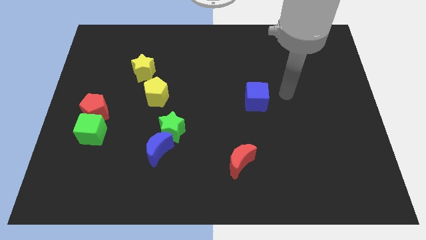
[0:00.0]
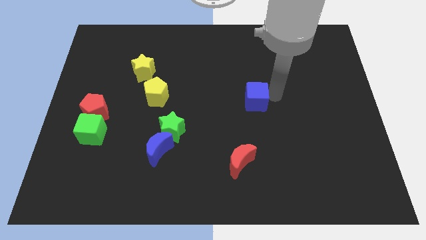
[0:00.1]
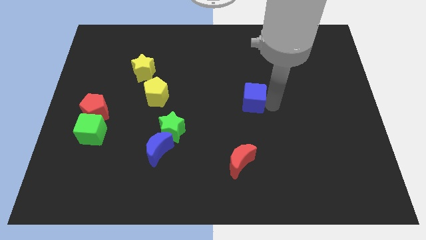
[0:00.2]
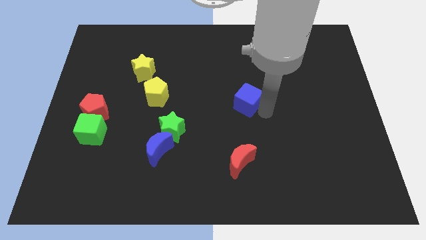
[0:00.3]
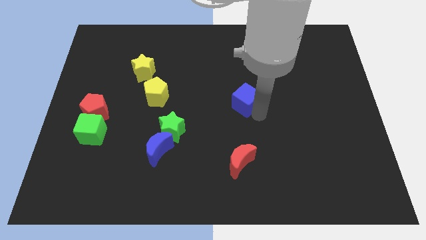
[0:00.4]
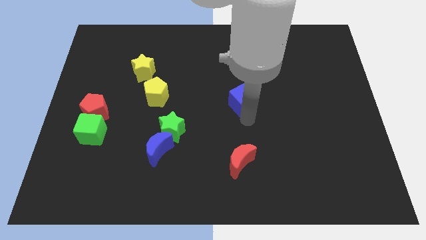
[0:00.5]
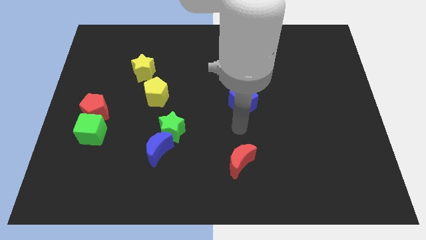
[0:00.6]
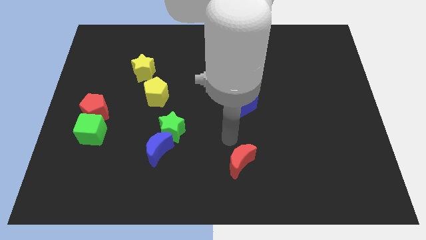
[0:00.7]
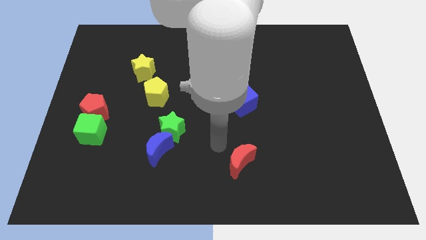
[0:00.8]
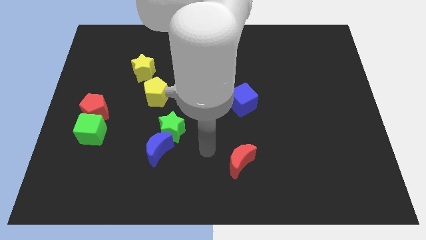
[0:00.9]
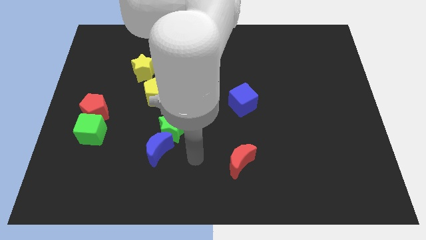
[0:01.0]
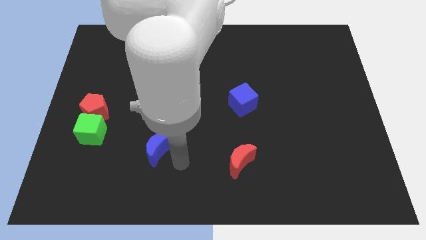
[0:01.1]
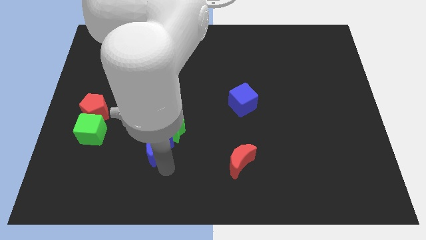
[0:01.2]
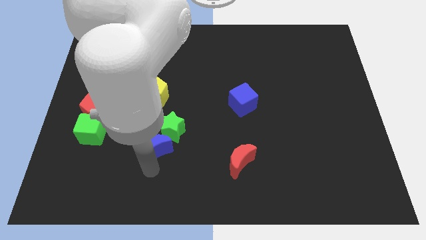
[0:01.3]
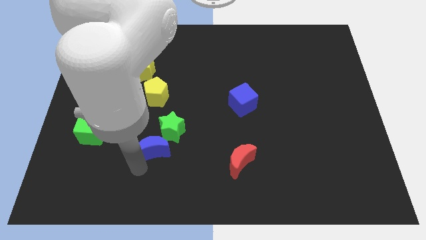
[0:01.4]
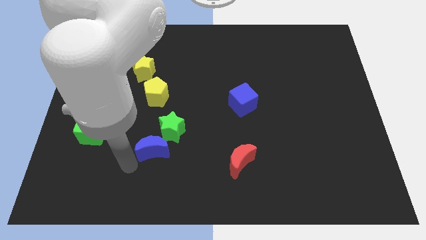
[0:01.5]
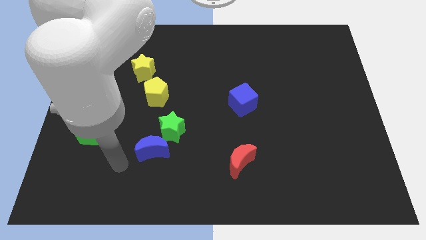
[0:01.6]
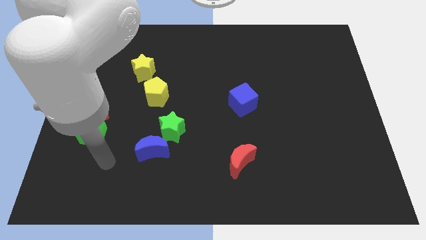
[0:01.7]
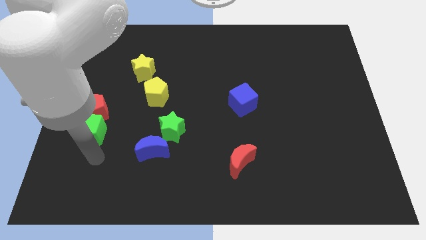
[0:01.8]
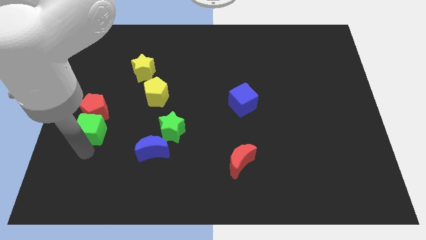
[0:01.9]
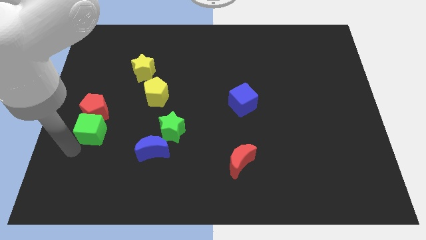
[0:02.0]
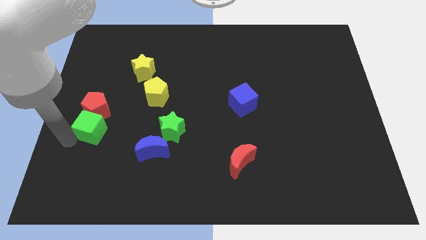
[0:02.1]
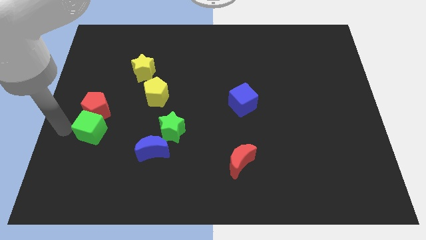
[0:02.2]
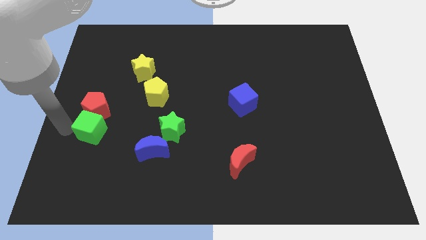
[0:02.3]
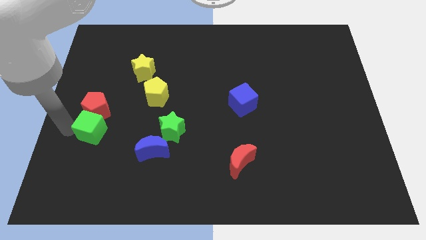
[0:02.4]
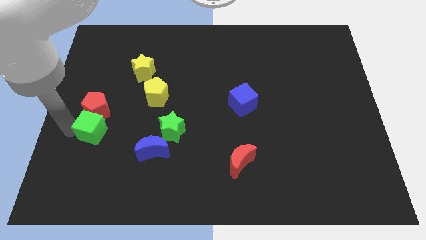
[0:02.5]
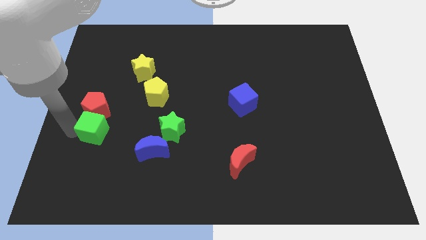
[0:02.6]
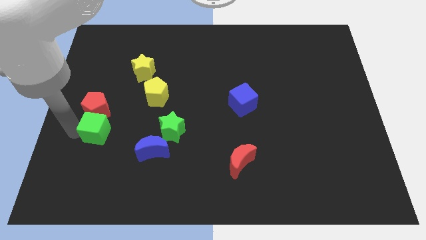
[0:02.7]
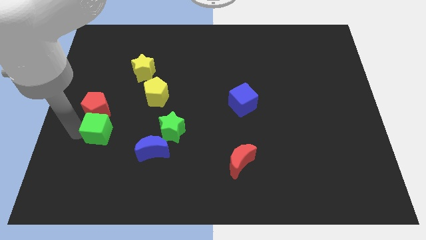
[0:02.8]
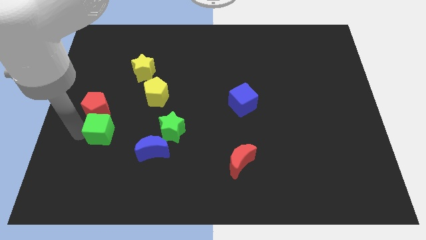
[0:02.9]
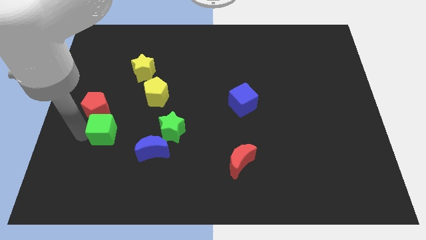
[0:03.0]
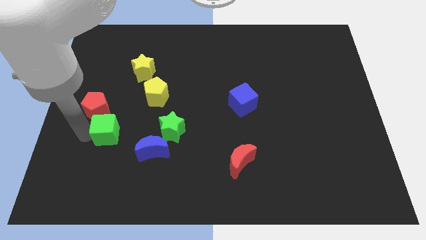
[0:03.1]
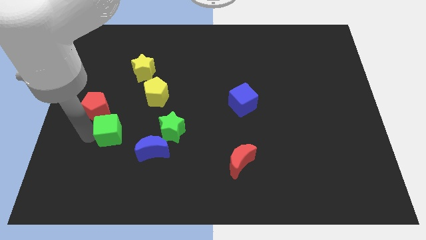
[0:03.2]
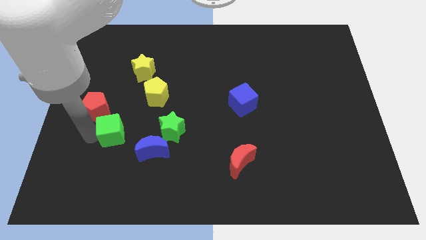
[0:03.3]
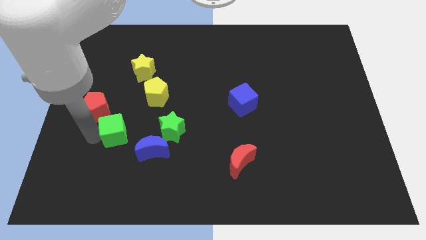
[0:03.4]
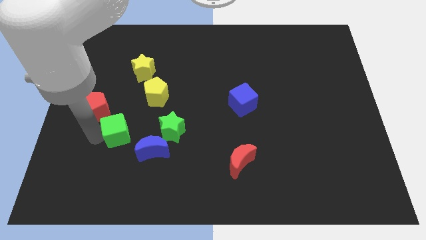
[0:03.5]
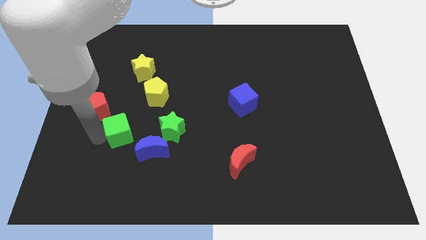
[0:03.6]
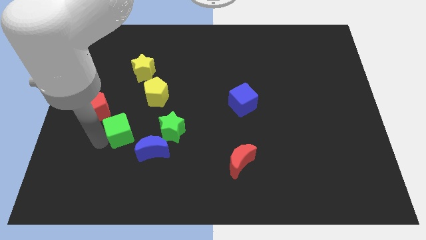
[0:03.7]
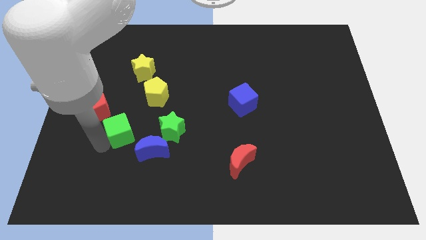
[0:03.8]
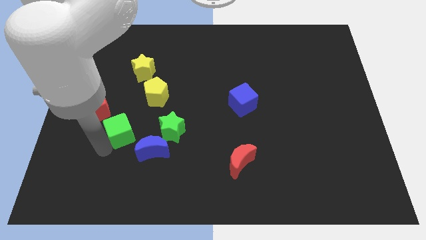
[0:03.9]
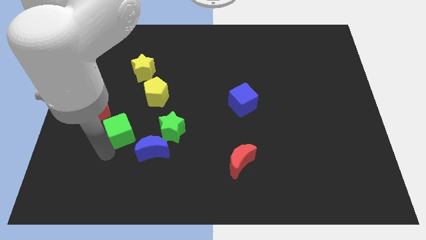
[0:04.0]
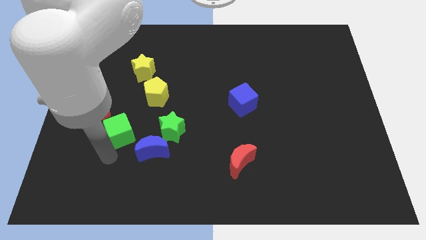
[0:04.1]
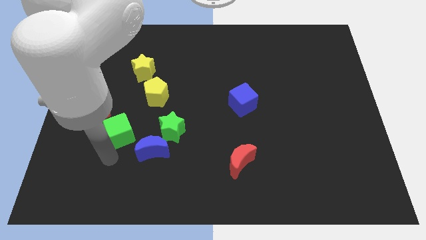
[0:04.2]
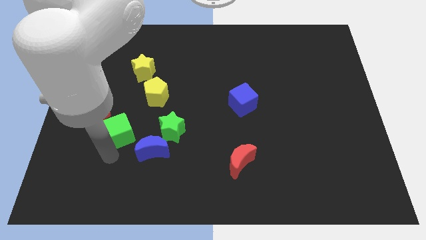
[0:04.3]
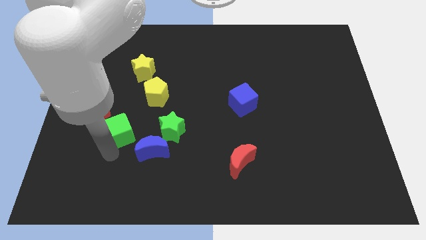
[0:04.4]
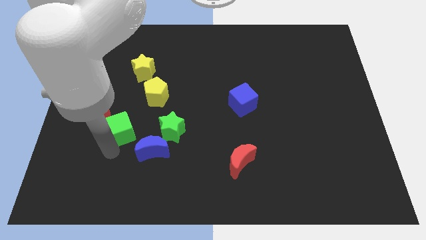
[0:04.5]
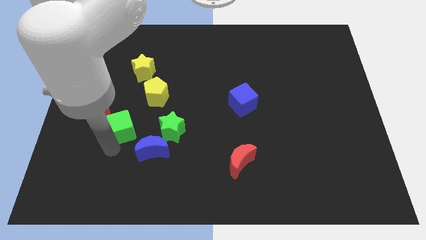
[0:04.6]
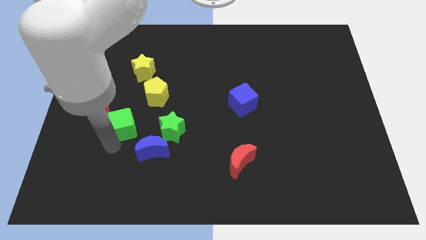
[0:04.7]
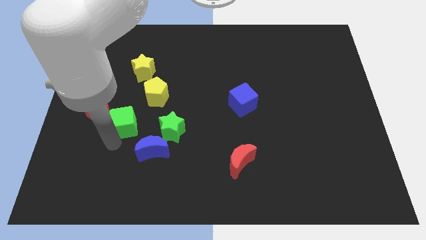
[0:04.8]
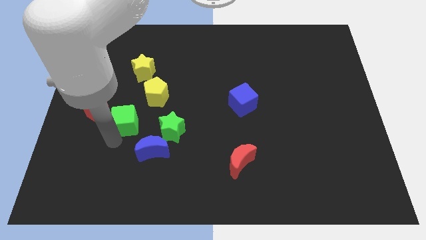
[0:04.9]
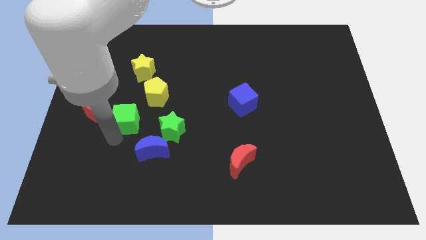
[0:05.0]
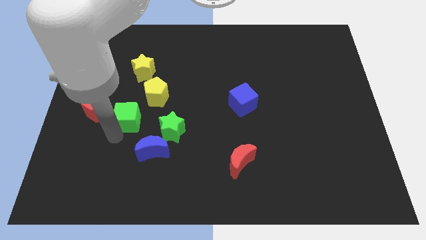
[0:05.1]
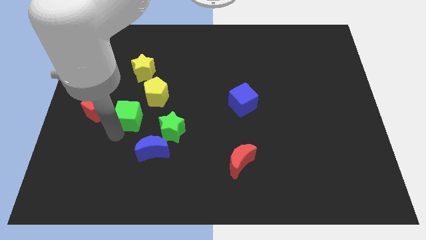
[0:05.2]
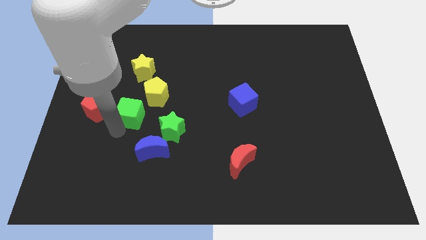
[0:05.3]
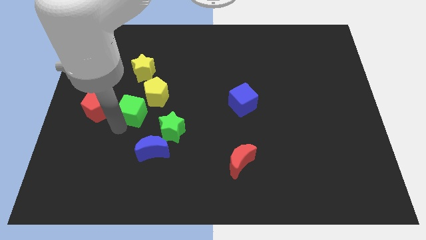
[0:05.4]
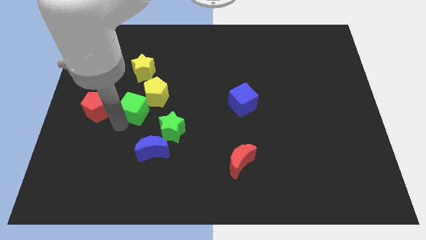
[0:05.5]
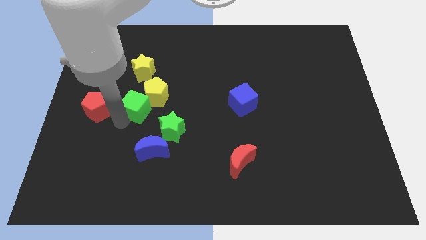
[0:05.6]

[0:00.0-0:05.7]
move the green cube to the yellow pentagon

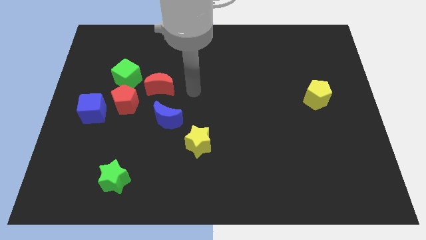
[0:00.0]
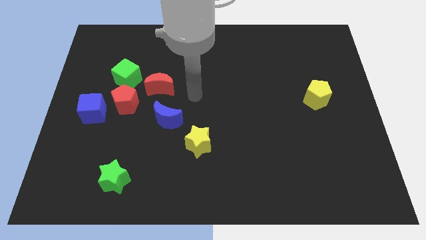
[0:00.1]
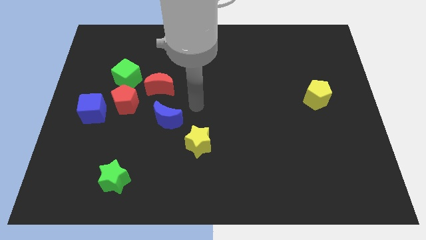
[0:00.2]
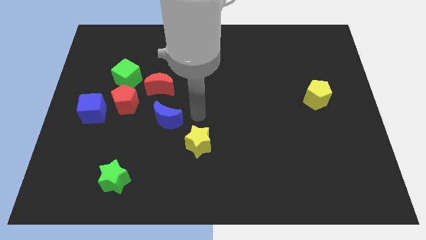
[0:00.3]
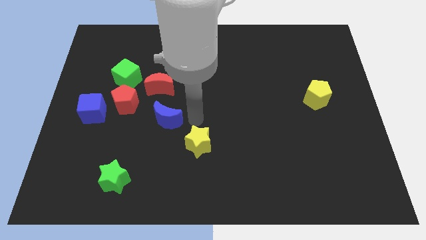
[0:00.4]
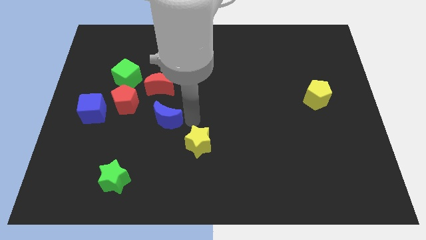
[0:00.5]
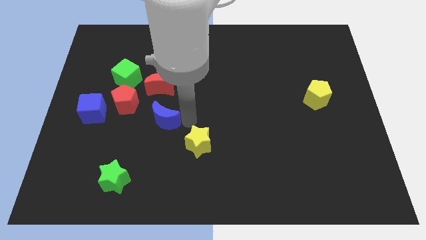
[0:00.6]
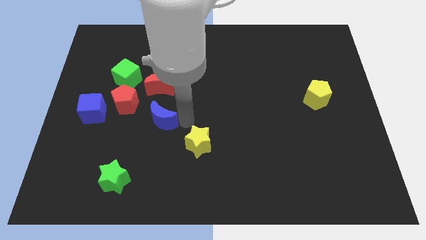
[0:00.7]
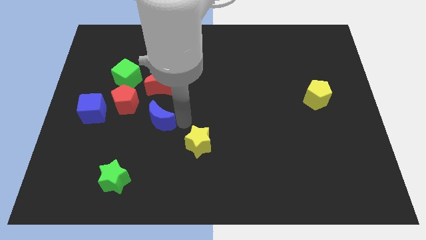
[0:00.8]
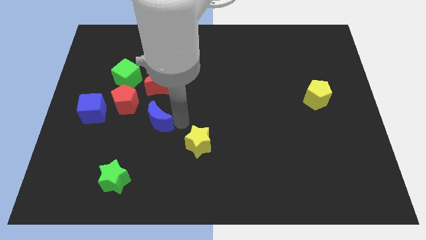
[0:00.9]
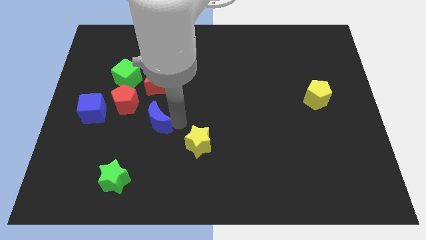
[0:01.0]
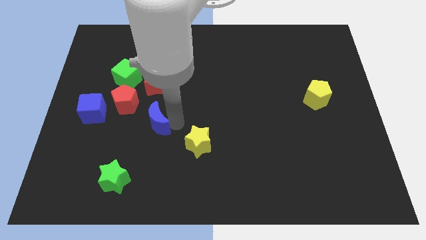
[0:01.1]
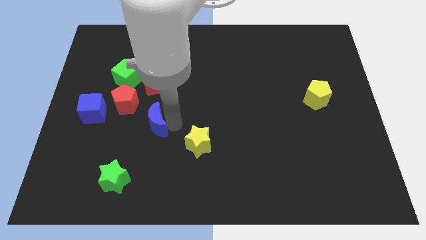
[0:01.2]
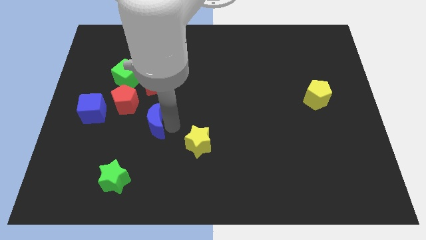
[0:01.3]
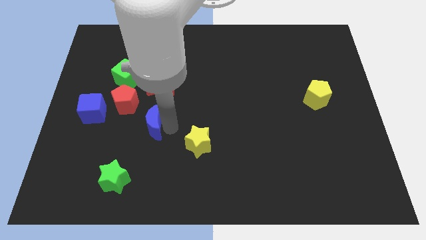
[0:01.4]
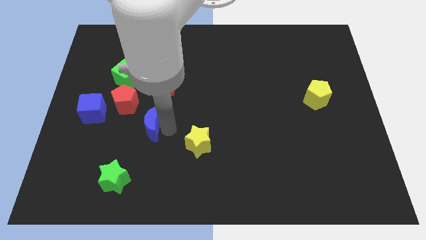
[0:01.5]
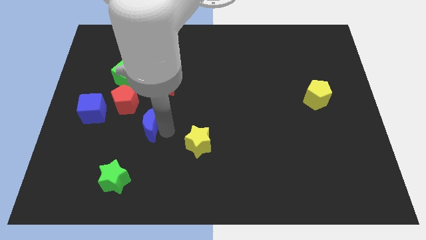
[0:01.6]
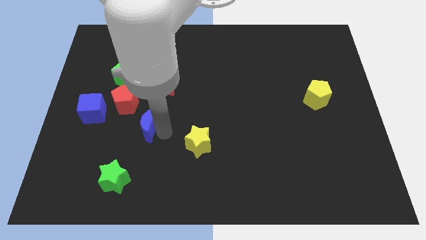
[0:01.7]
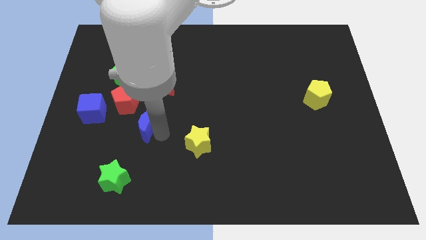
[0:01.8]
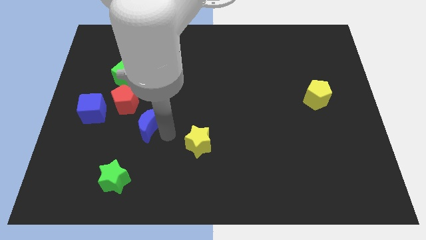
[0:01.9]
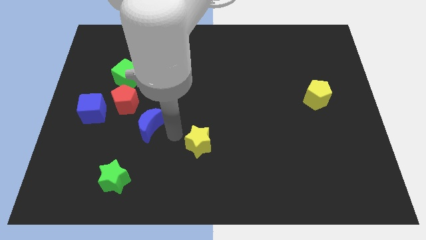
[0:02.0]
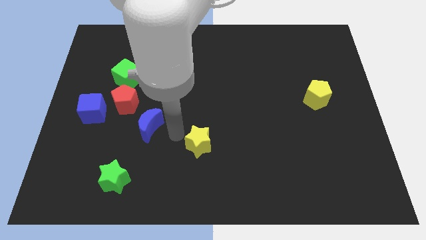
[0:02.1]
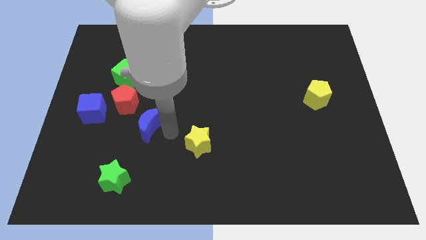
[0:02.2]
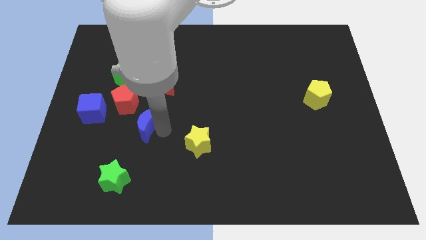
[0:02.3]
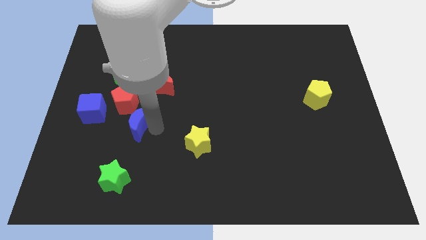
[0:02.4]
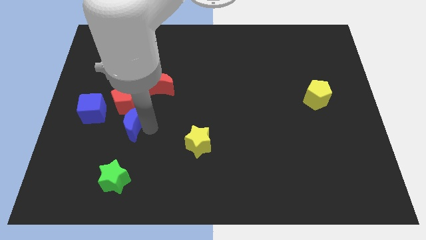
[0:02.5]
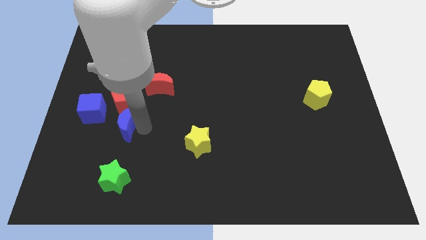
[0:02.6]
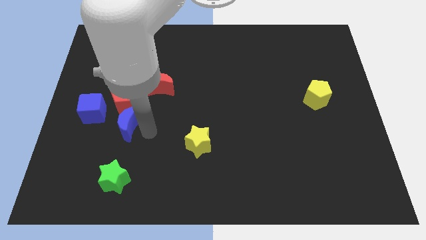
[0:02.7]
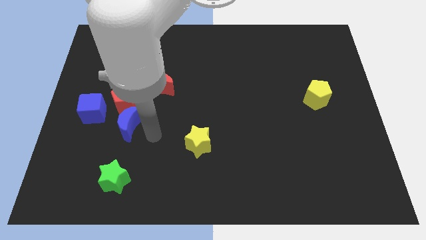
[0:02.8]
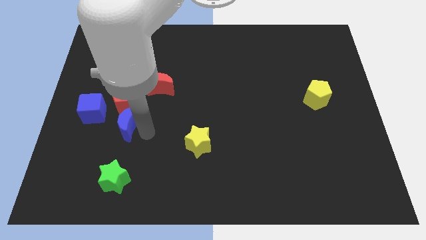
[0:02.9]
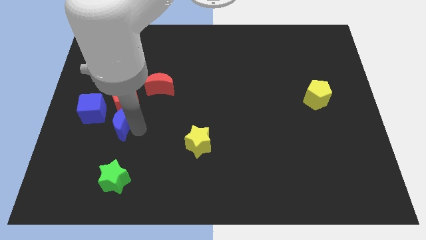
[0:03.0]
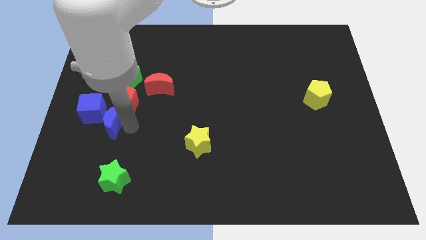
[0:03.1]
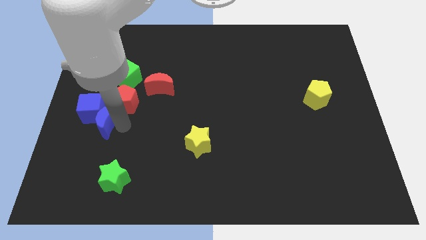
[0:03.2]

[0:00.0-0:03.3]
move the blue moon towards the blue cube
